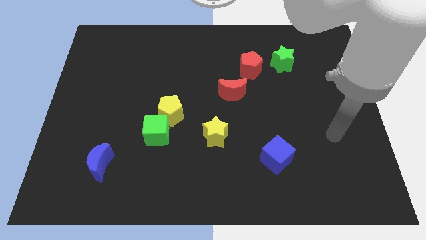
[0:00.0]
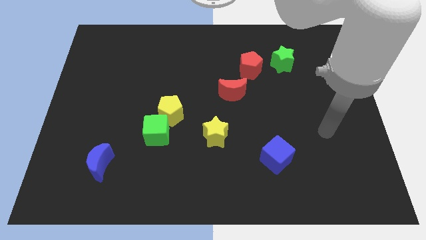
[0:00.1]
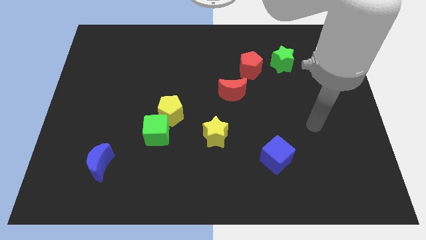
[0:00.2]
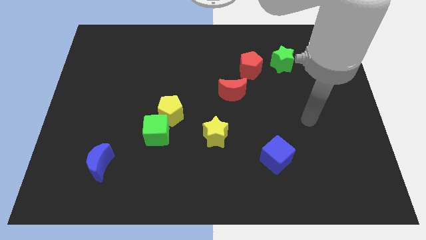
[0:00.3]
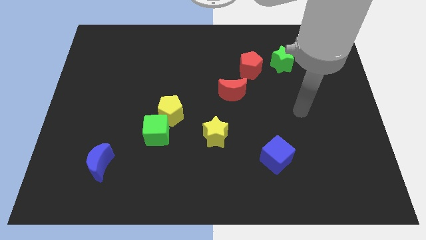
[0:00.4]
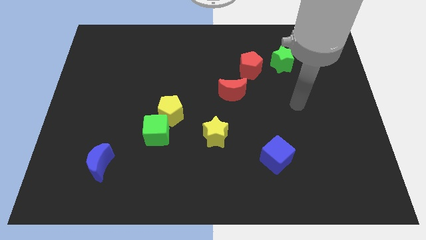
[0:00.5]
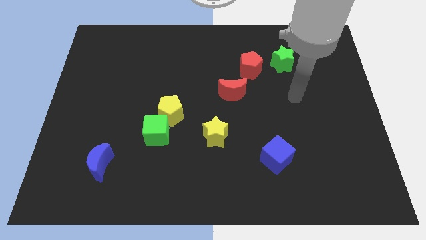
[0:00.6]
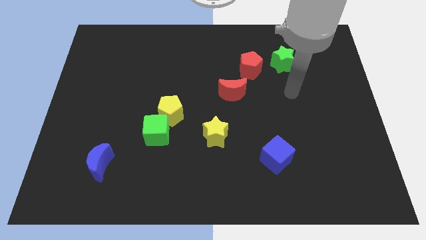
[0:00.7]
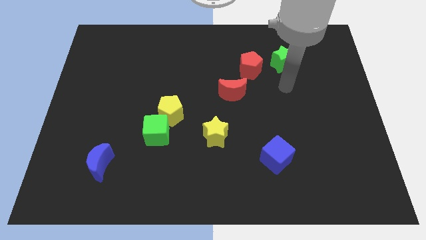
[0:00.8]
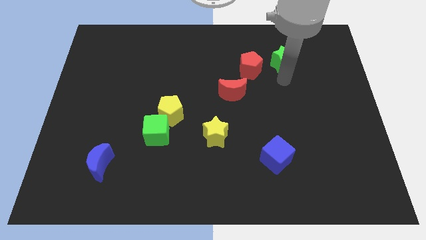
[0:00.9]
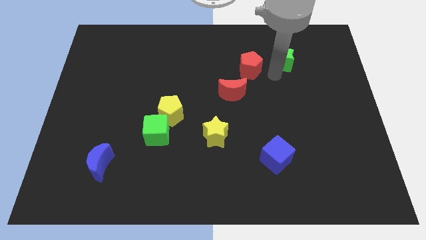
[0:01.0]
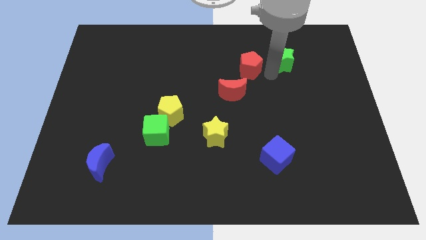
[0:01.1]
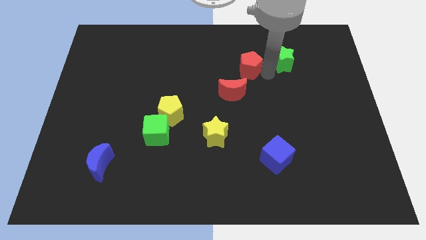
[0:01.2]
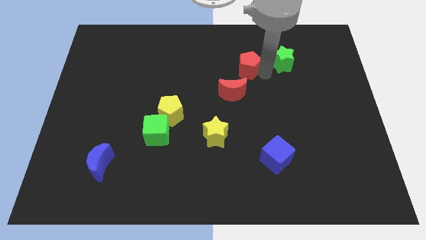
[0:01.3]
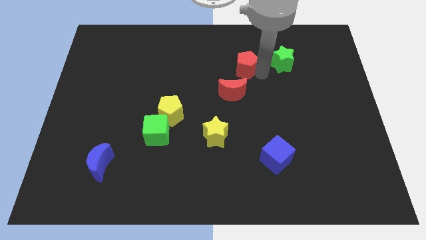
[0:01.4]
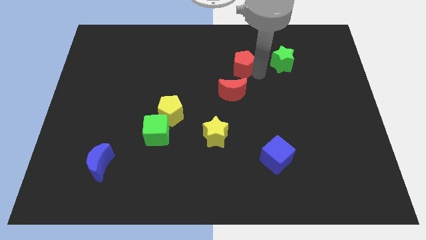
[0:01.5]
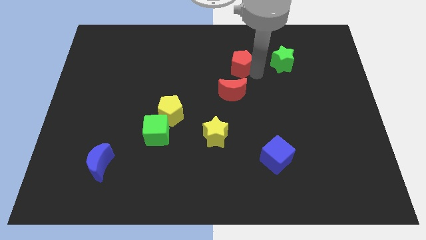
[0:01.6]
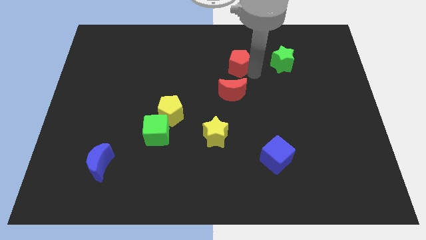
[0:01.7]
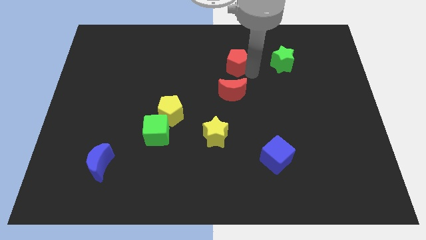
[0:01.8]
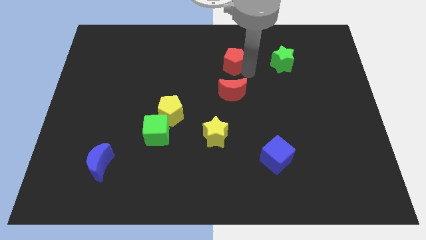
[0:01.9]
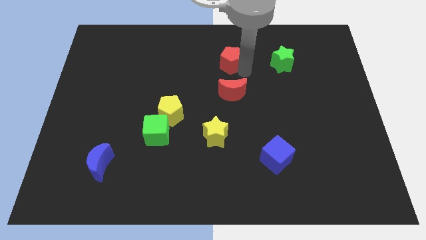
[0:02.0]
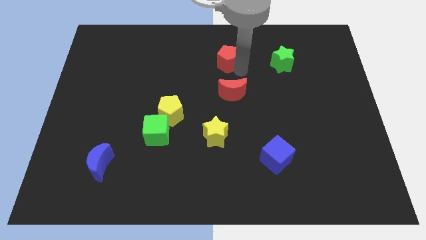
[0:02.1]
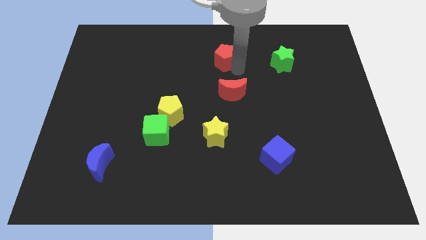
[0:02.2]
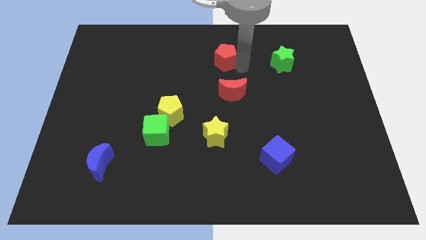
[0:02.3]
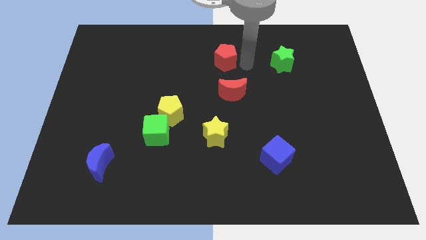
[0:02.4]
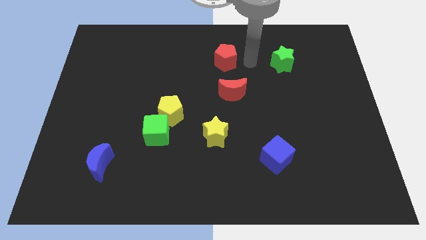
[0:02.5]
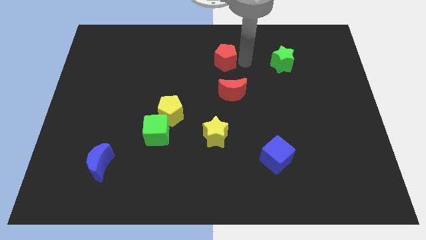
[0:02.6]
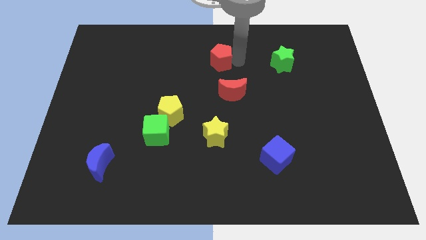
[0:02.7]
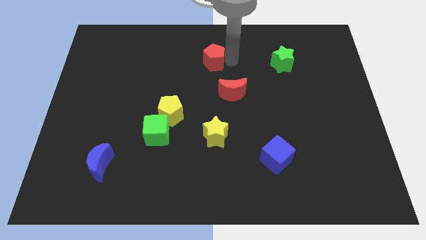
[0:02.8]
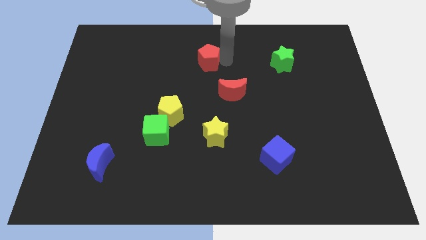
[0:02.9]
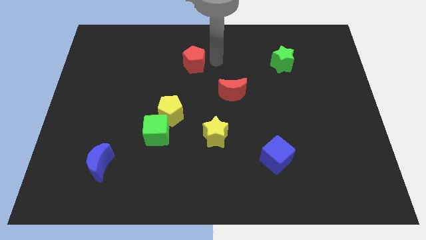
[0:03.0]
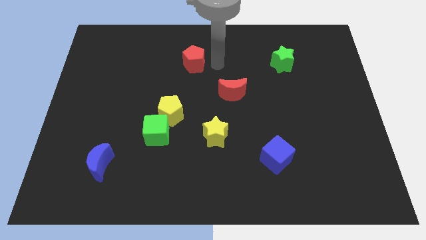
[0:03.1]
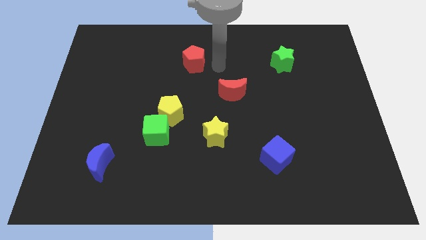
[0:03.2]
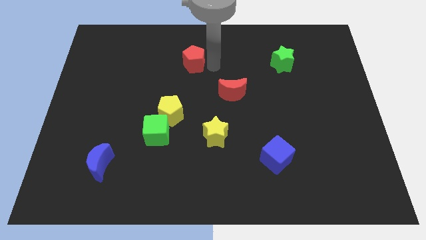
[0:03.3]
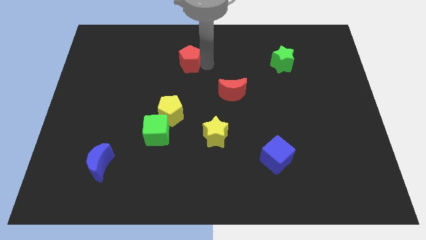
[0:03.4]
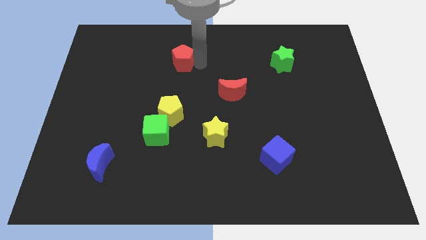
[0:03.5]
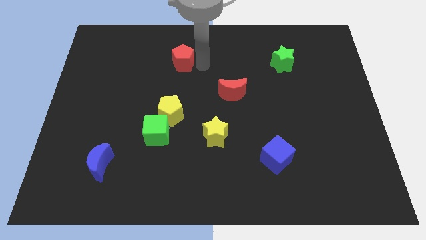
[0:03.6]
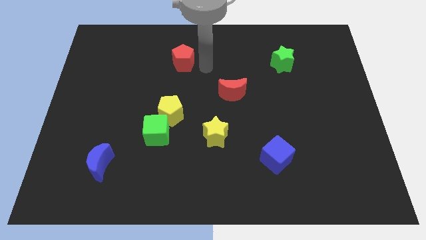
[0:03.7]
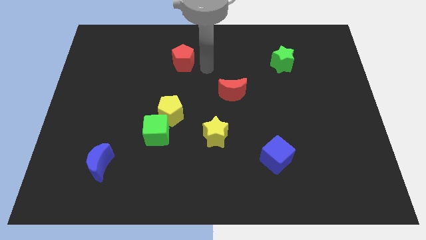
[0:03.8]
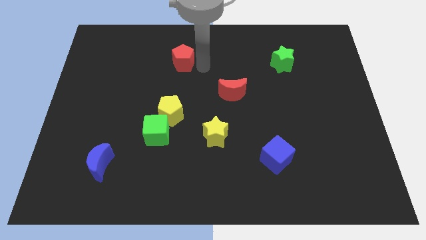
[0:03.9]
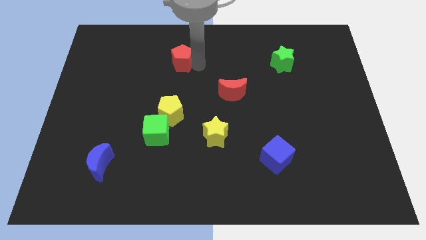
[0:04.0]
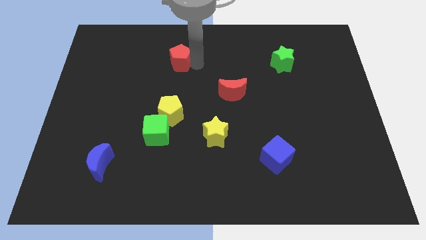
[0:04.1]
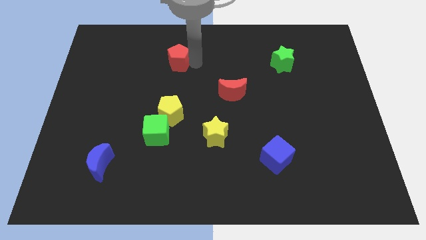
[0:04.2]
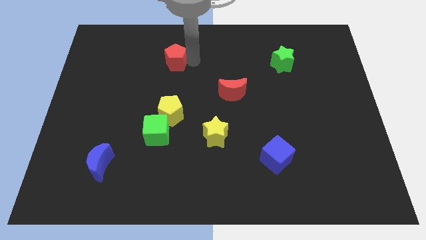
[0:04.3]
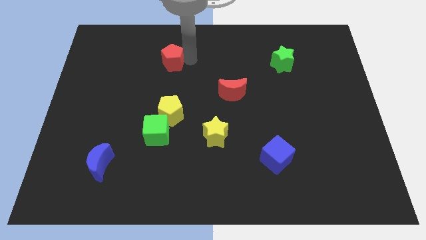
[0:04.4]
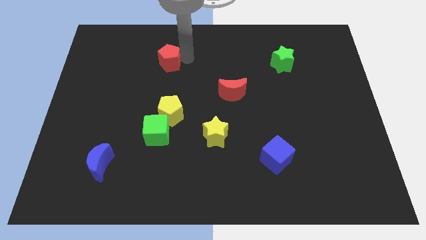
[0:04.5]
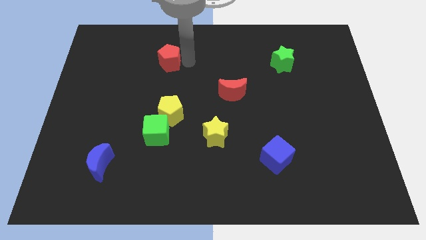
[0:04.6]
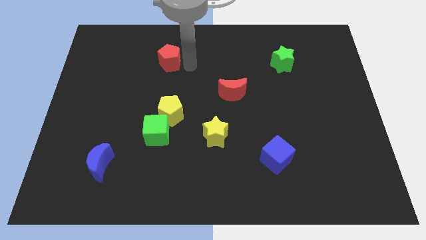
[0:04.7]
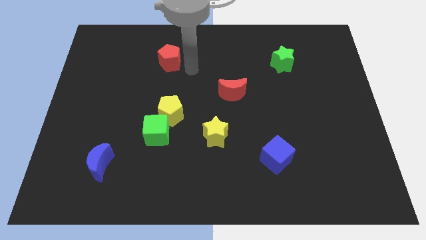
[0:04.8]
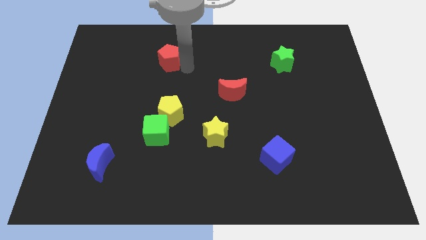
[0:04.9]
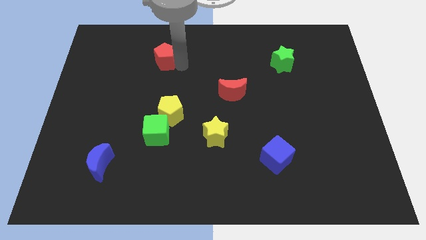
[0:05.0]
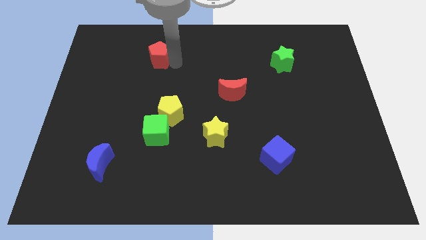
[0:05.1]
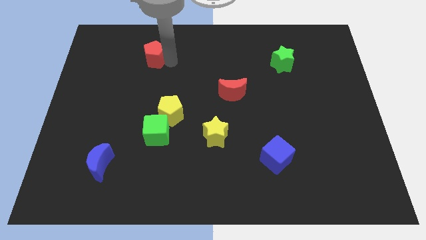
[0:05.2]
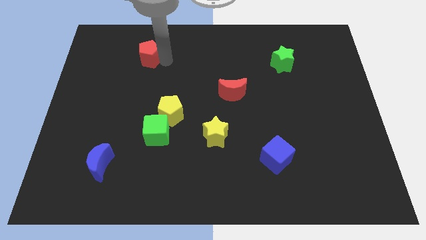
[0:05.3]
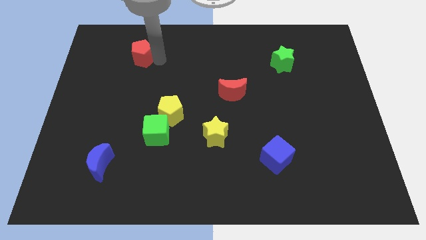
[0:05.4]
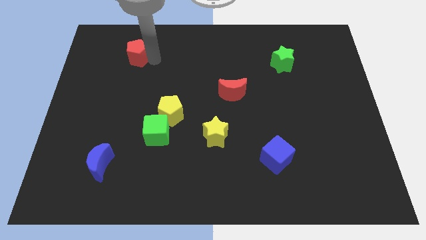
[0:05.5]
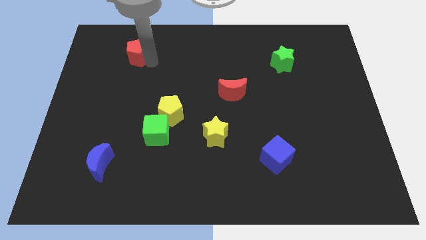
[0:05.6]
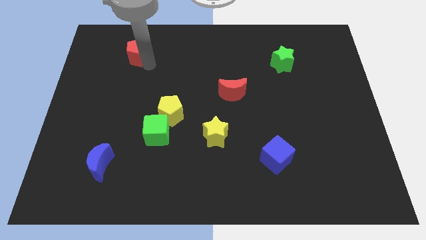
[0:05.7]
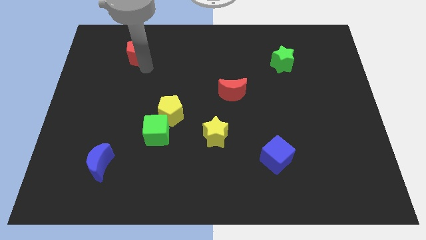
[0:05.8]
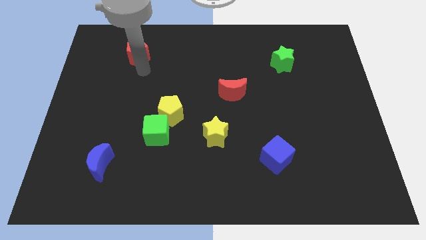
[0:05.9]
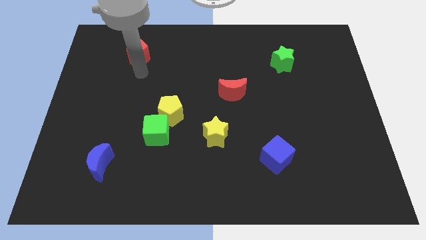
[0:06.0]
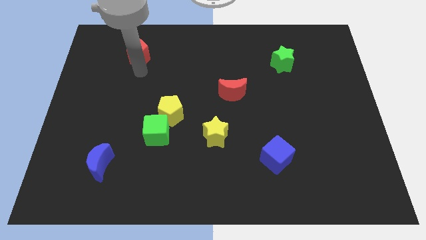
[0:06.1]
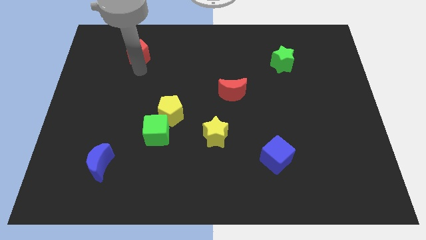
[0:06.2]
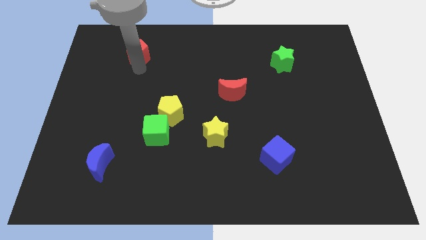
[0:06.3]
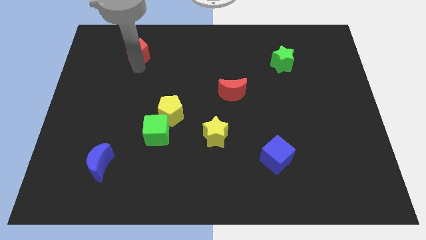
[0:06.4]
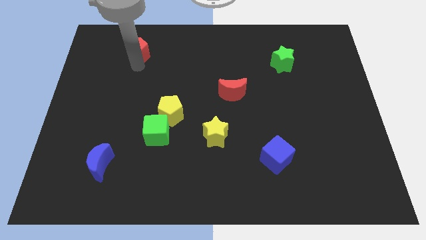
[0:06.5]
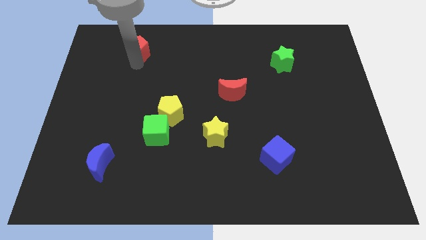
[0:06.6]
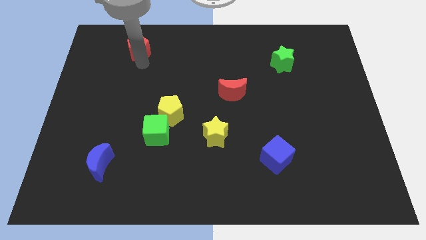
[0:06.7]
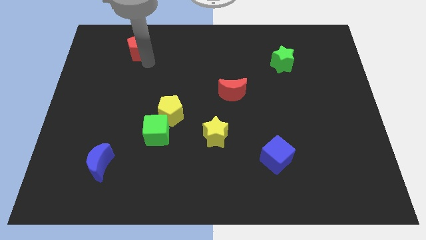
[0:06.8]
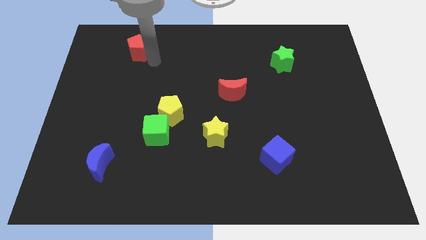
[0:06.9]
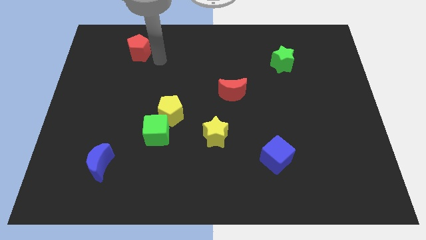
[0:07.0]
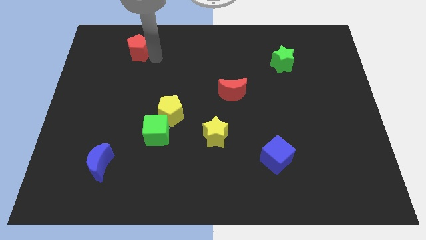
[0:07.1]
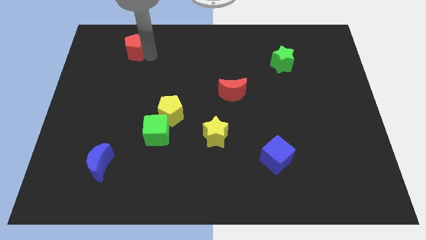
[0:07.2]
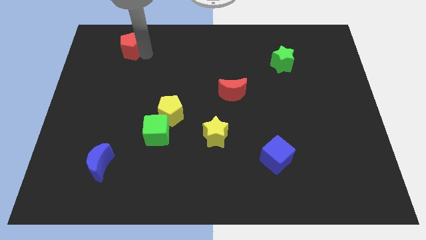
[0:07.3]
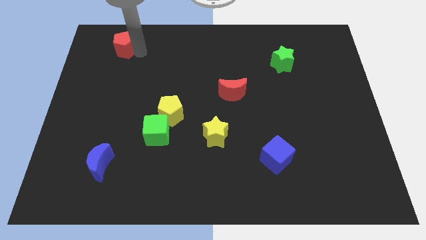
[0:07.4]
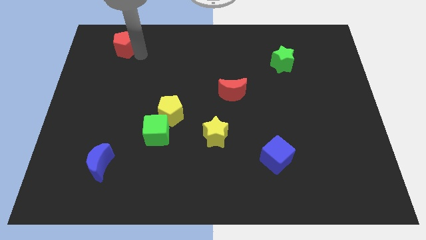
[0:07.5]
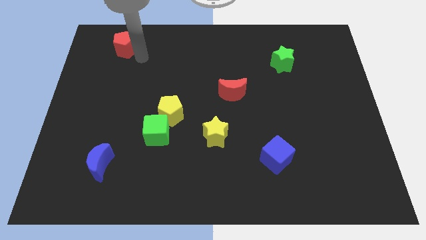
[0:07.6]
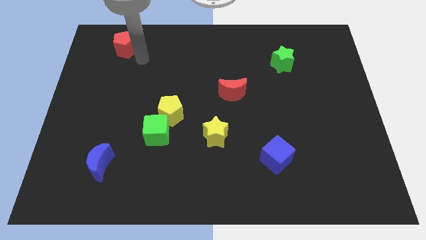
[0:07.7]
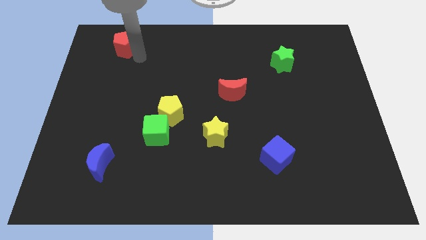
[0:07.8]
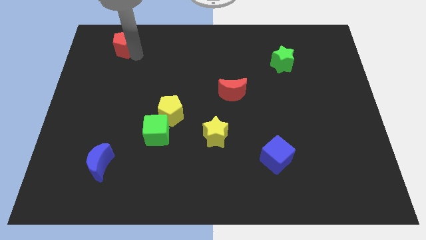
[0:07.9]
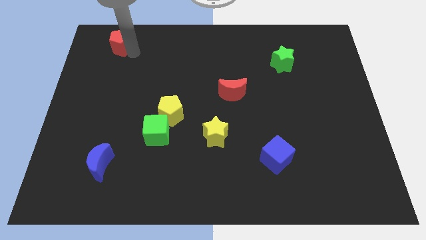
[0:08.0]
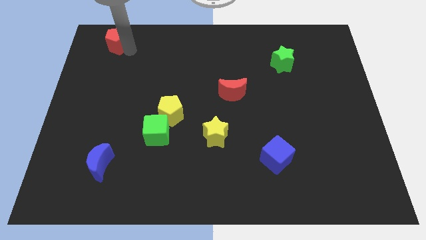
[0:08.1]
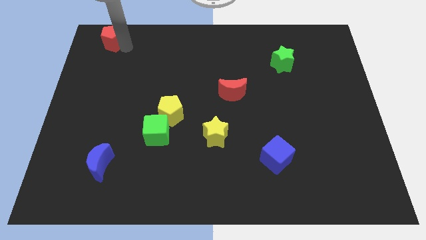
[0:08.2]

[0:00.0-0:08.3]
slide the red pentagon to the upper left corner
